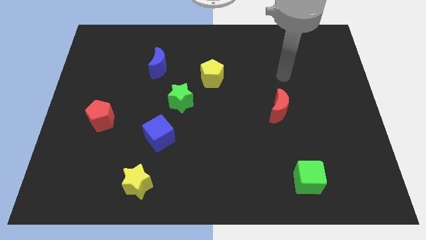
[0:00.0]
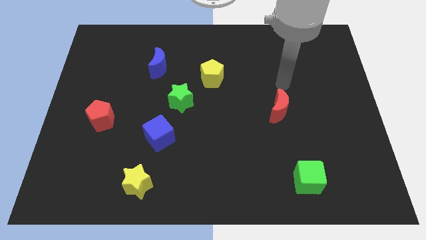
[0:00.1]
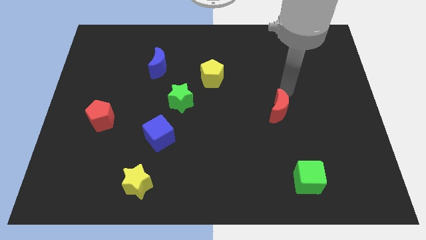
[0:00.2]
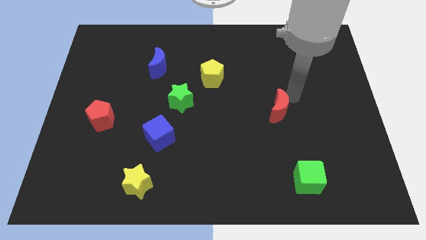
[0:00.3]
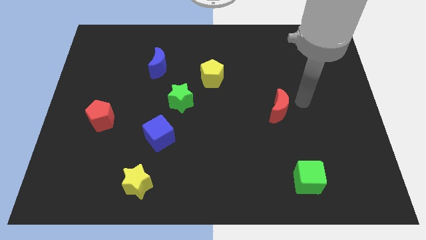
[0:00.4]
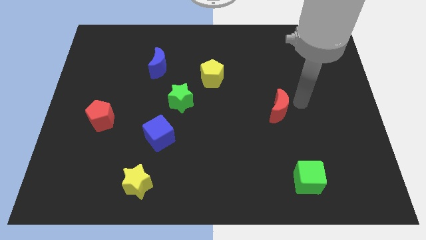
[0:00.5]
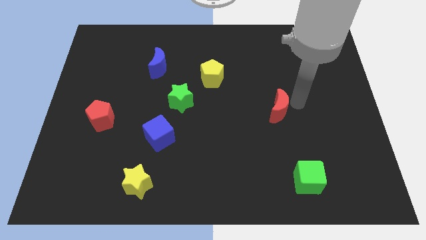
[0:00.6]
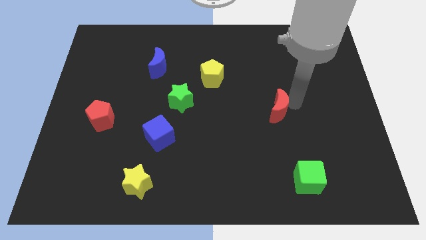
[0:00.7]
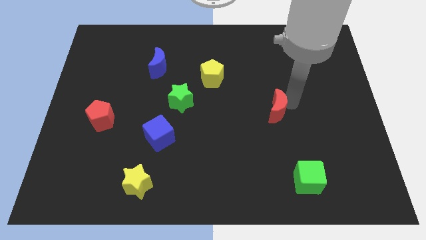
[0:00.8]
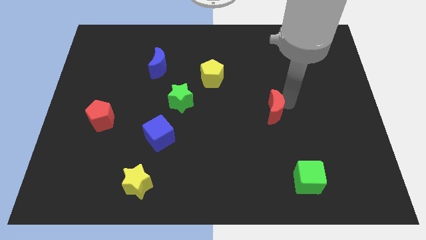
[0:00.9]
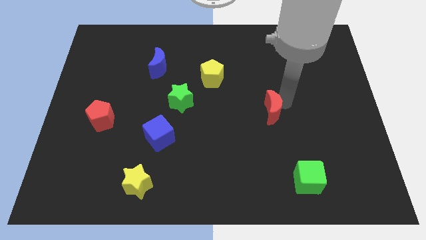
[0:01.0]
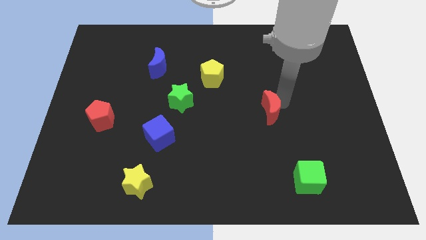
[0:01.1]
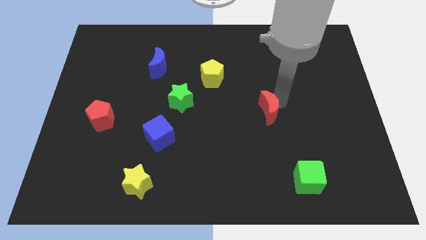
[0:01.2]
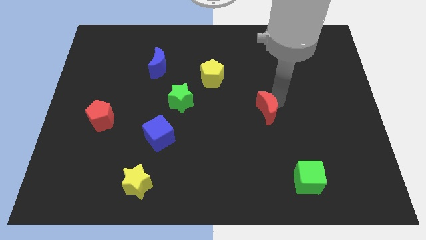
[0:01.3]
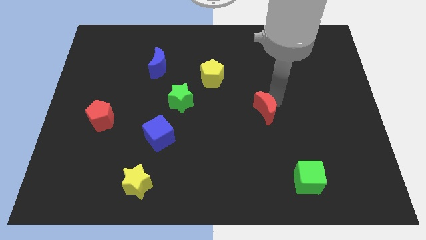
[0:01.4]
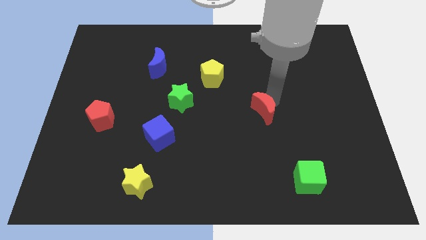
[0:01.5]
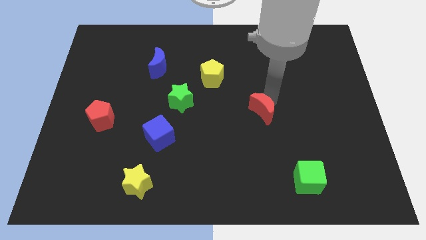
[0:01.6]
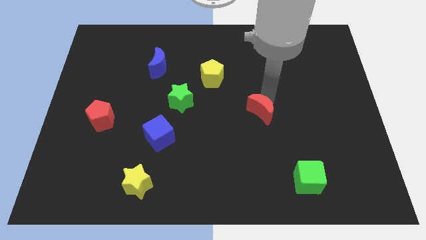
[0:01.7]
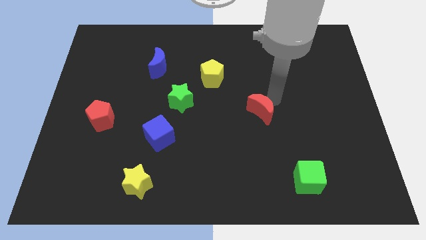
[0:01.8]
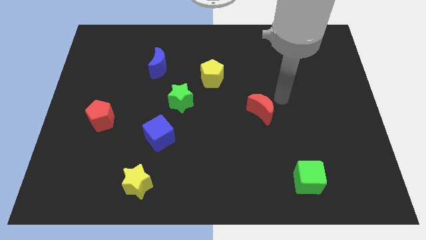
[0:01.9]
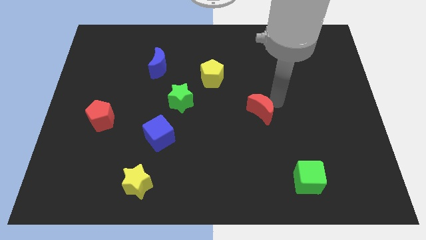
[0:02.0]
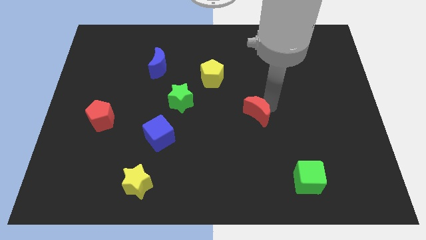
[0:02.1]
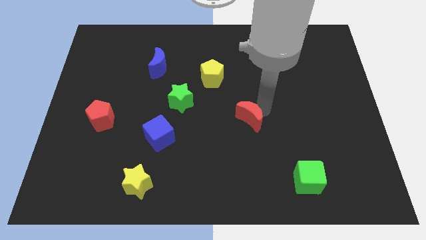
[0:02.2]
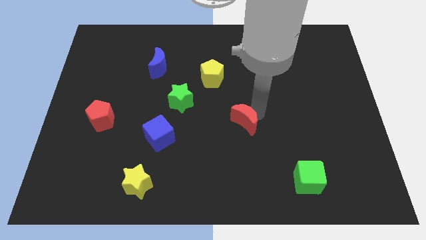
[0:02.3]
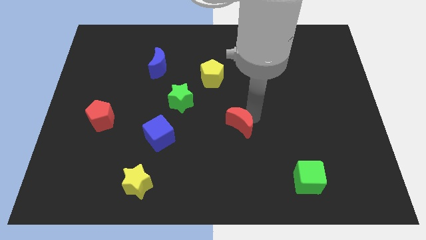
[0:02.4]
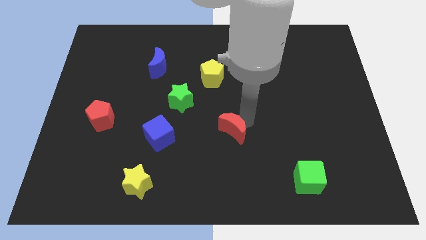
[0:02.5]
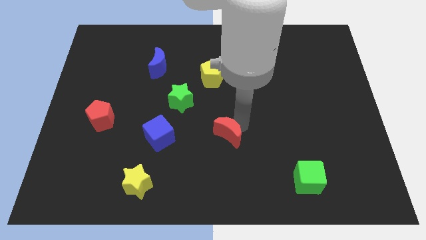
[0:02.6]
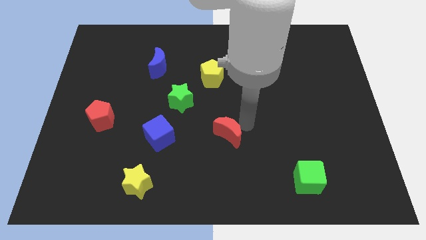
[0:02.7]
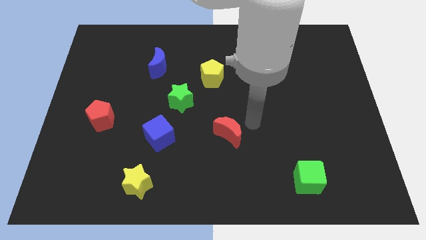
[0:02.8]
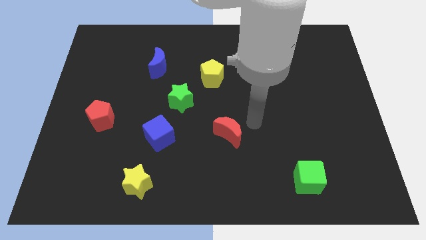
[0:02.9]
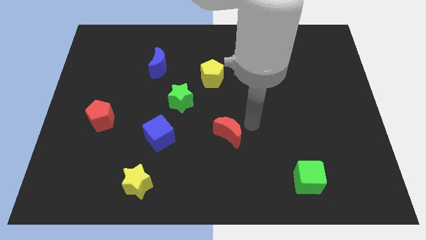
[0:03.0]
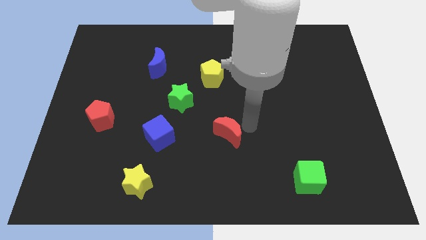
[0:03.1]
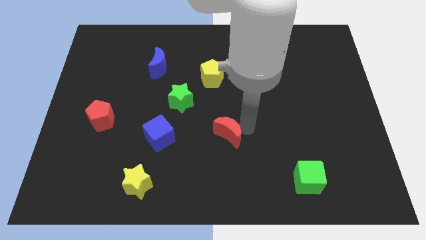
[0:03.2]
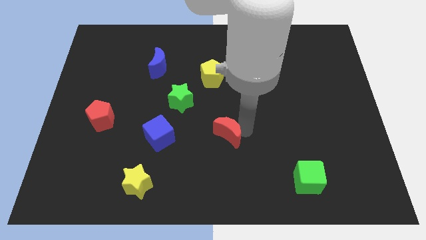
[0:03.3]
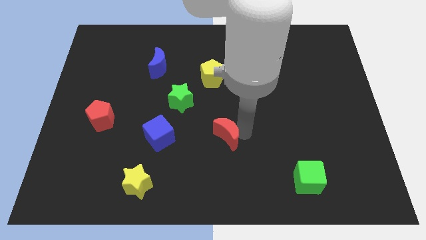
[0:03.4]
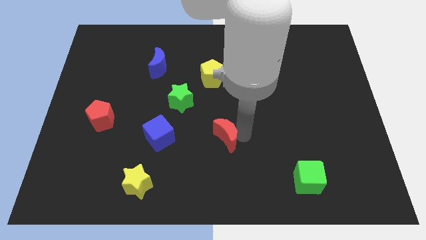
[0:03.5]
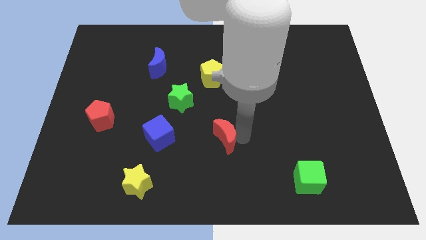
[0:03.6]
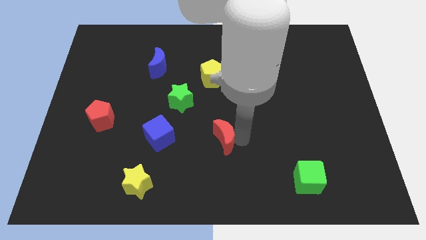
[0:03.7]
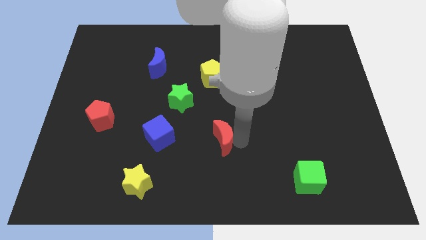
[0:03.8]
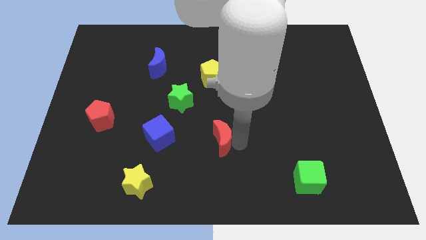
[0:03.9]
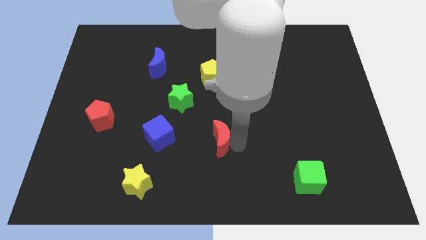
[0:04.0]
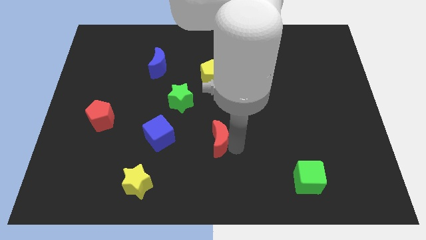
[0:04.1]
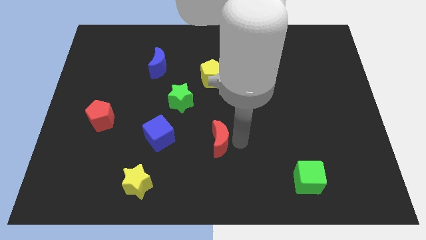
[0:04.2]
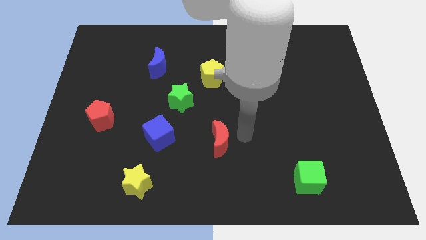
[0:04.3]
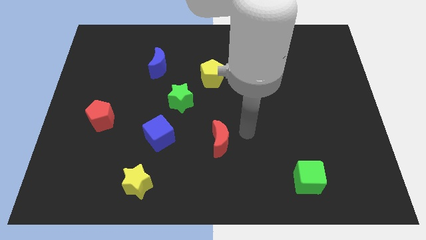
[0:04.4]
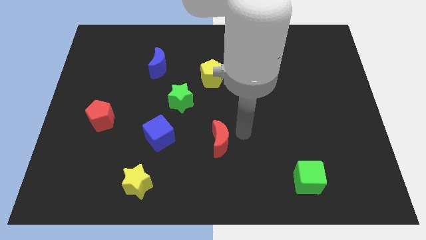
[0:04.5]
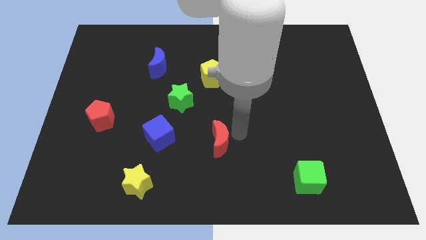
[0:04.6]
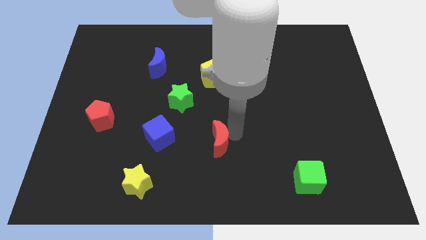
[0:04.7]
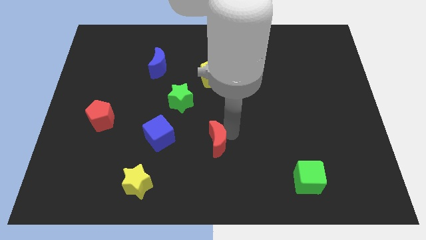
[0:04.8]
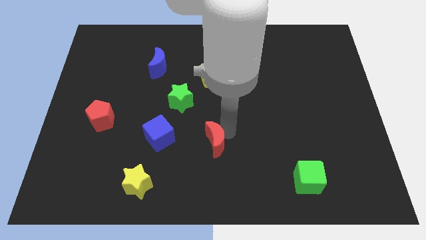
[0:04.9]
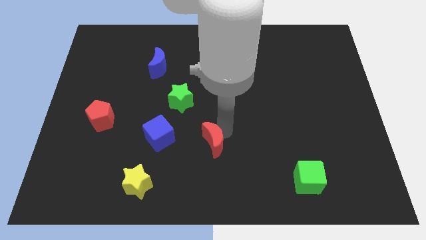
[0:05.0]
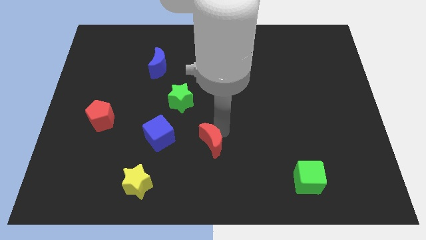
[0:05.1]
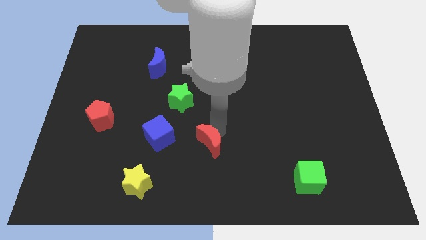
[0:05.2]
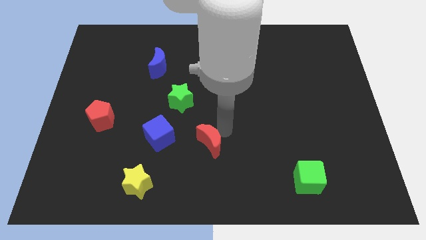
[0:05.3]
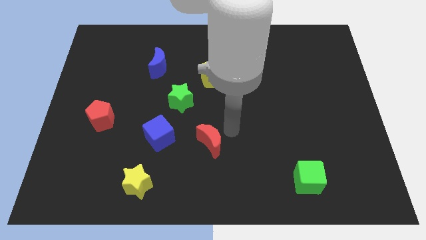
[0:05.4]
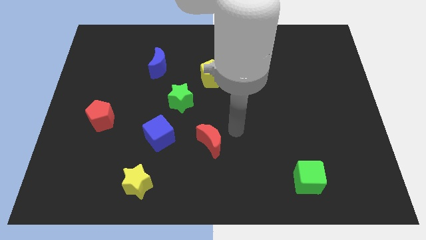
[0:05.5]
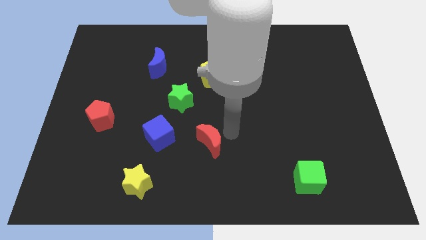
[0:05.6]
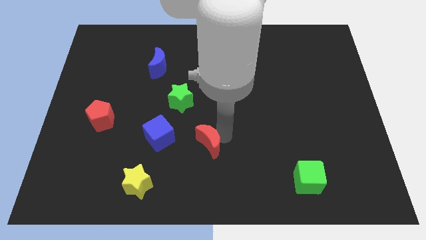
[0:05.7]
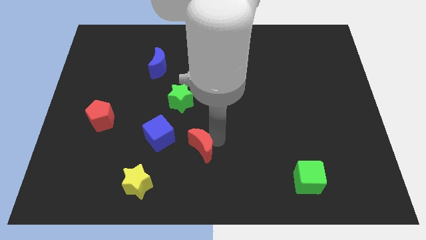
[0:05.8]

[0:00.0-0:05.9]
move the red moon to the bottom right side of the blue cube

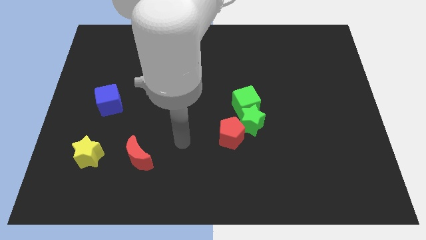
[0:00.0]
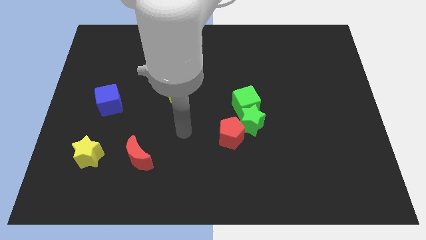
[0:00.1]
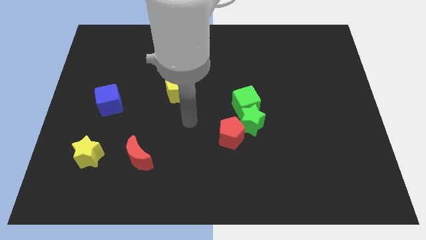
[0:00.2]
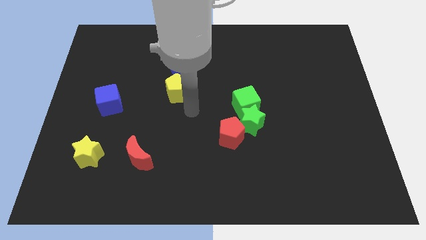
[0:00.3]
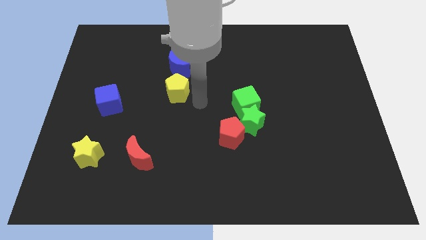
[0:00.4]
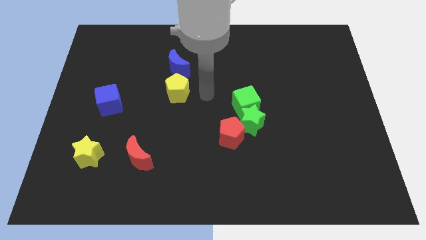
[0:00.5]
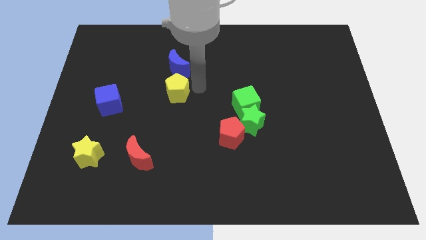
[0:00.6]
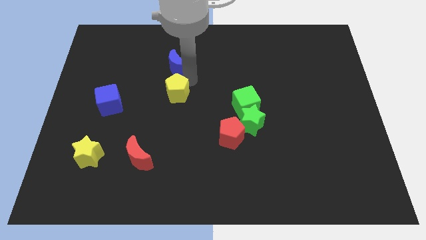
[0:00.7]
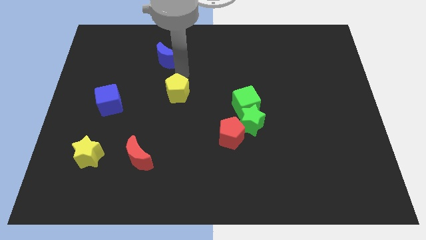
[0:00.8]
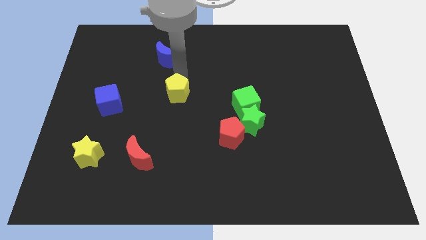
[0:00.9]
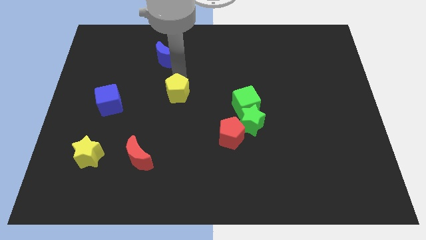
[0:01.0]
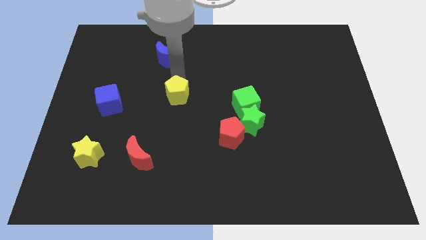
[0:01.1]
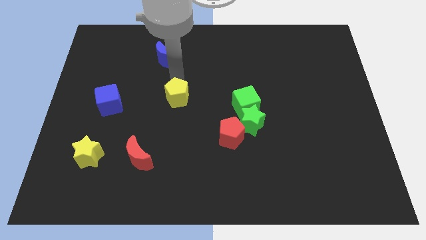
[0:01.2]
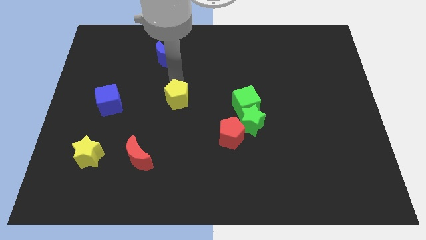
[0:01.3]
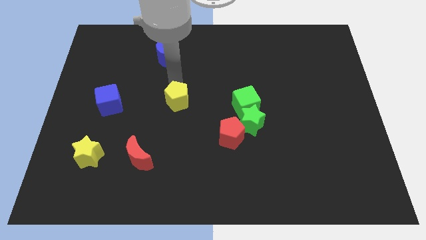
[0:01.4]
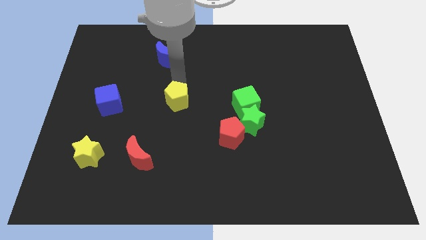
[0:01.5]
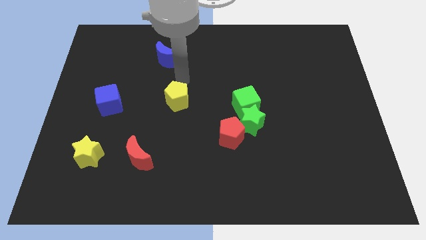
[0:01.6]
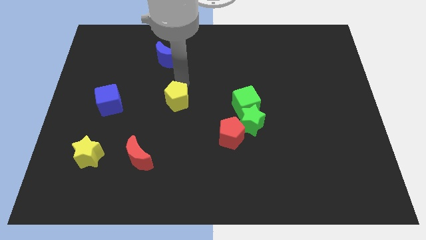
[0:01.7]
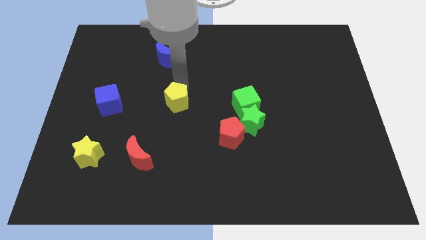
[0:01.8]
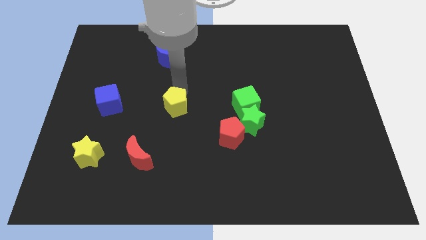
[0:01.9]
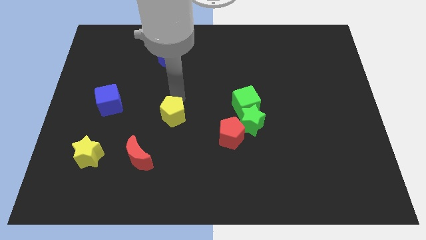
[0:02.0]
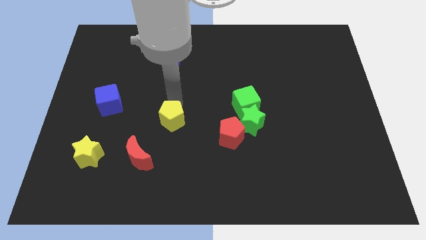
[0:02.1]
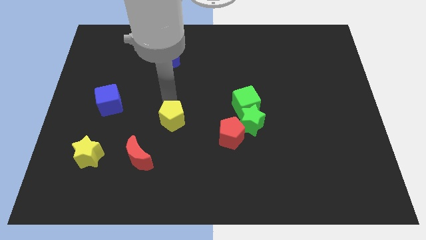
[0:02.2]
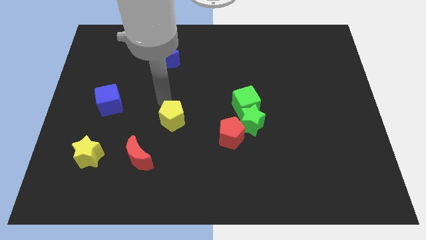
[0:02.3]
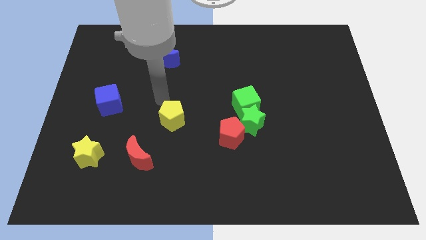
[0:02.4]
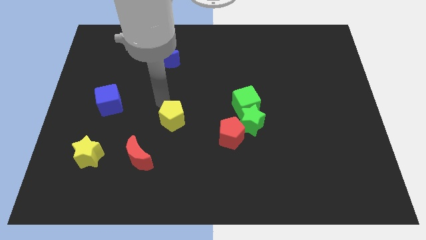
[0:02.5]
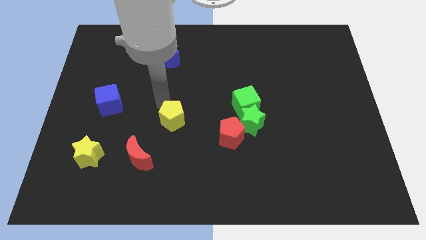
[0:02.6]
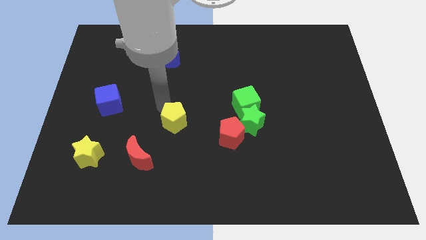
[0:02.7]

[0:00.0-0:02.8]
push the yellow pentagon to the left of the red pentagon
